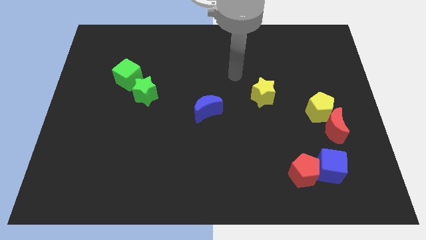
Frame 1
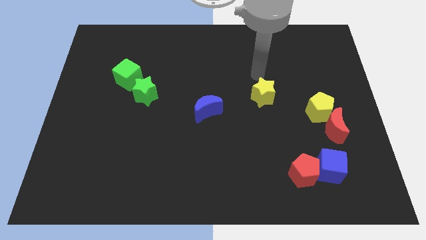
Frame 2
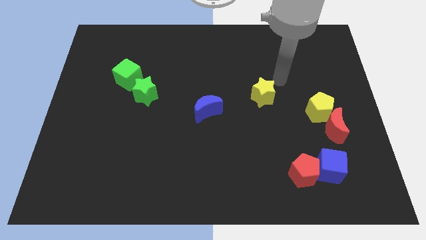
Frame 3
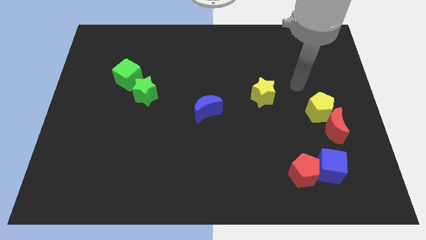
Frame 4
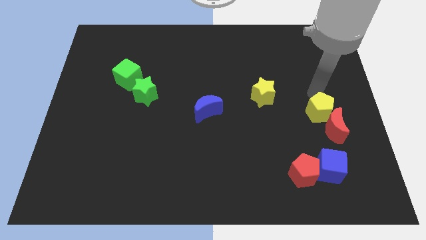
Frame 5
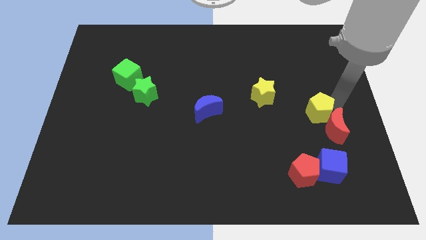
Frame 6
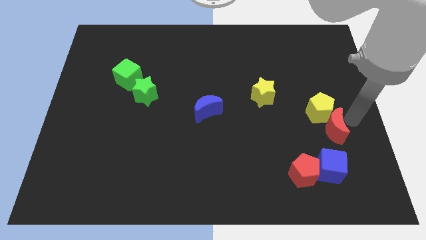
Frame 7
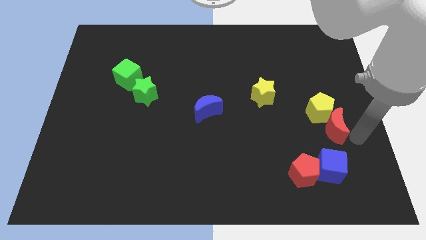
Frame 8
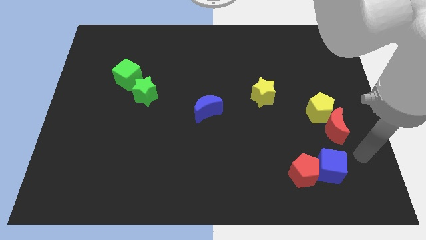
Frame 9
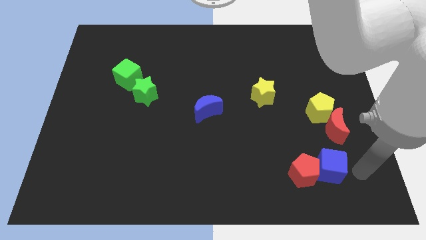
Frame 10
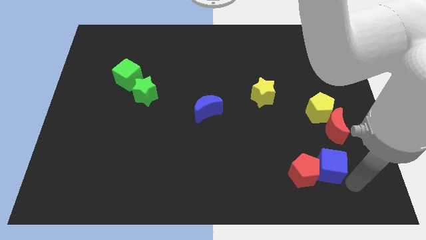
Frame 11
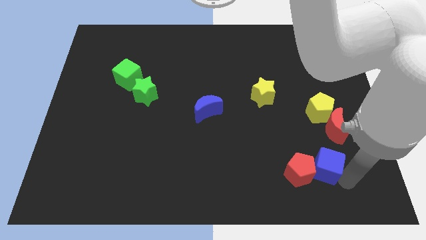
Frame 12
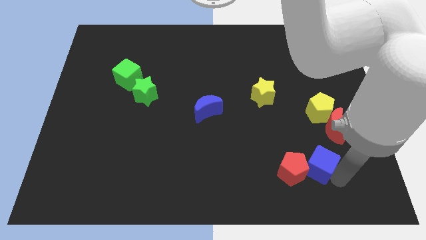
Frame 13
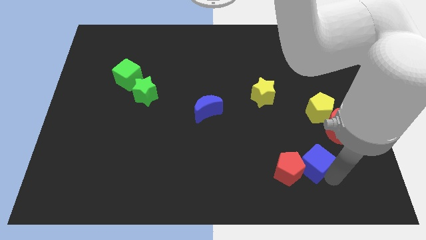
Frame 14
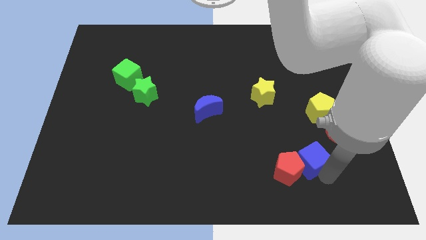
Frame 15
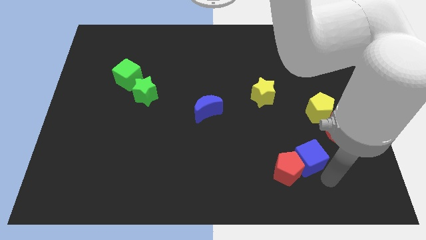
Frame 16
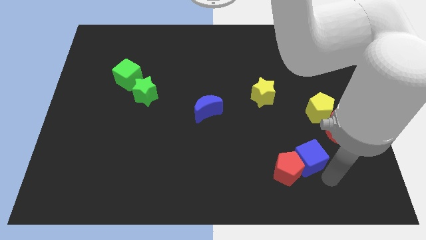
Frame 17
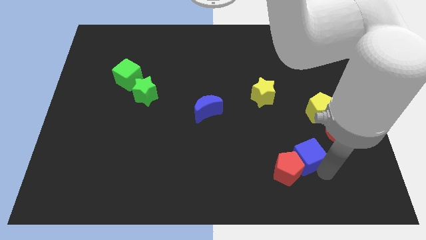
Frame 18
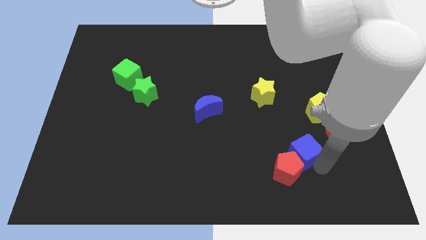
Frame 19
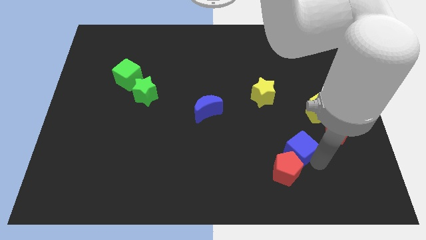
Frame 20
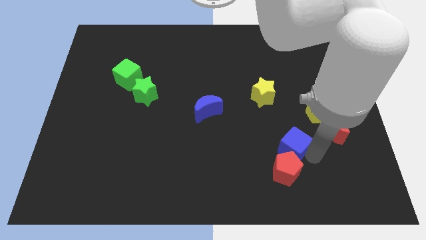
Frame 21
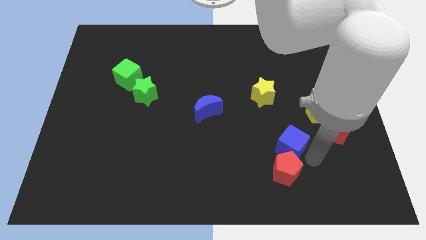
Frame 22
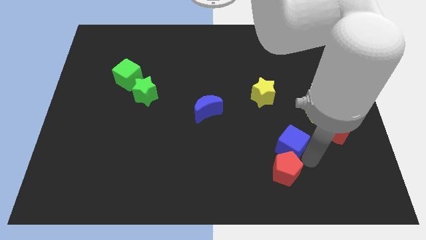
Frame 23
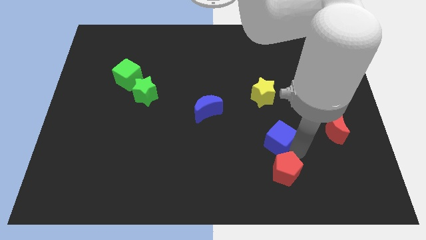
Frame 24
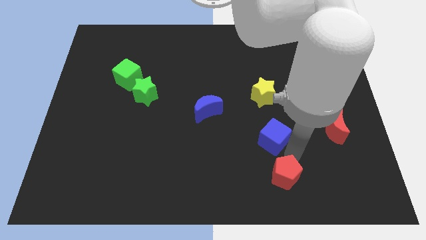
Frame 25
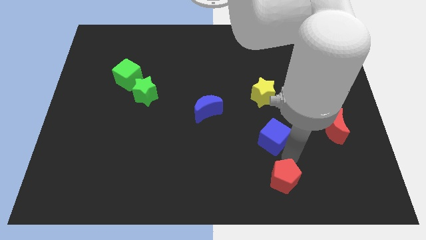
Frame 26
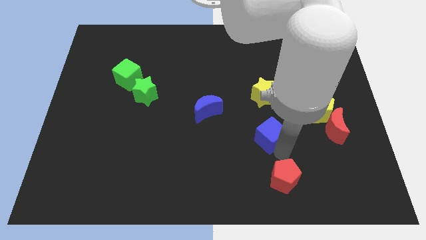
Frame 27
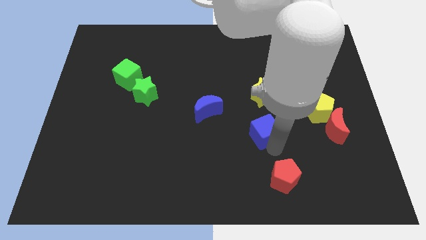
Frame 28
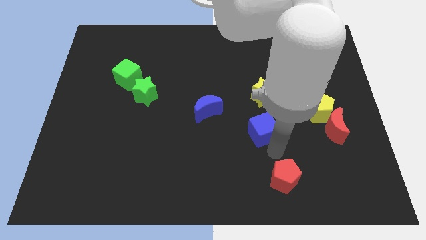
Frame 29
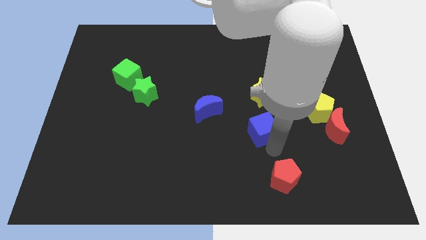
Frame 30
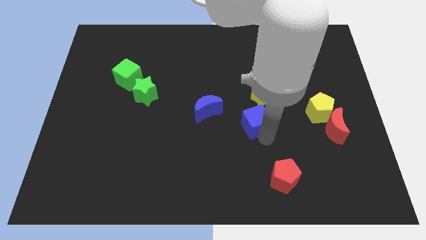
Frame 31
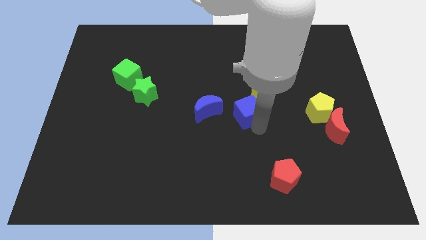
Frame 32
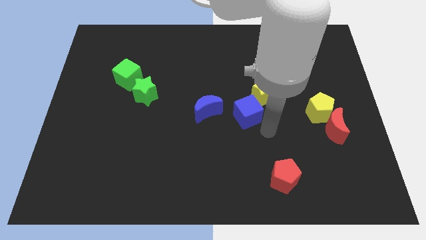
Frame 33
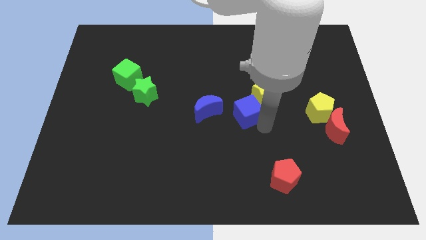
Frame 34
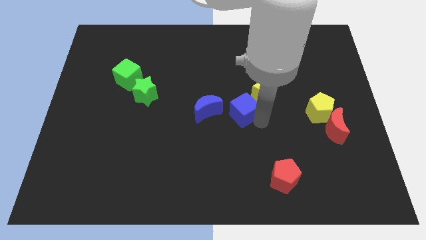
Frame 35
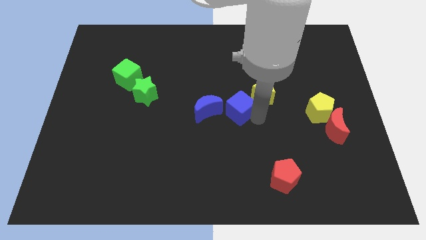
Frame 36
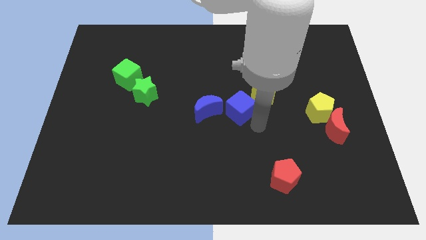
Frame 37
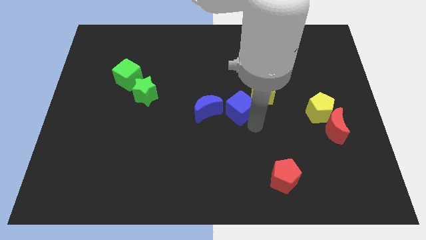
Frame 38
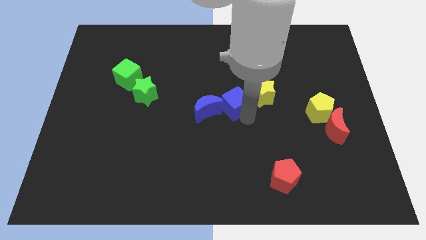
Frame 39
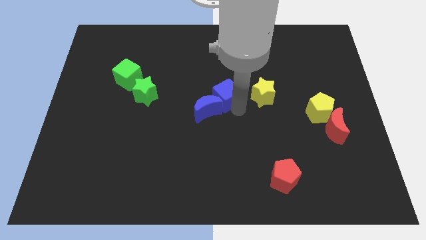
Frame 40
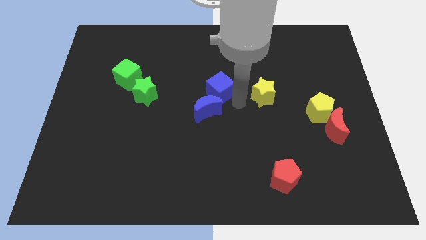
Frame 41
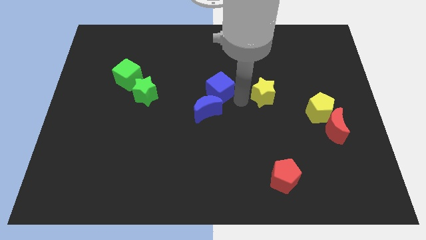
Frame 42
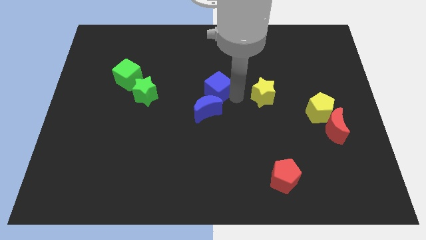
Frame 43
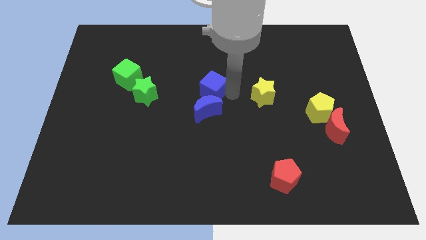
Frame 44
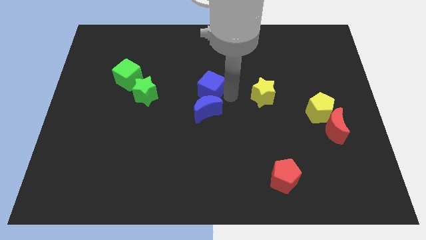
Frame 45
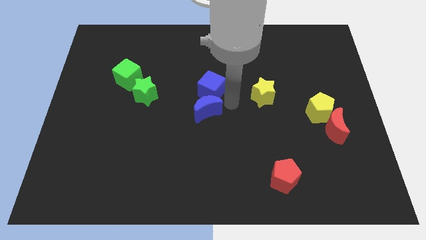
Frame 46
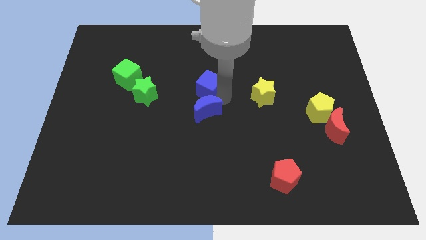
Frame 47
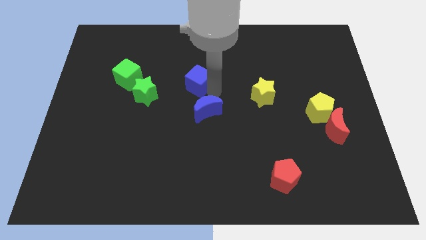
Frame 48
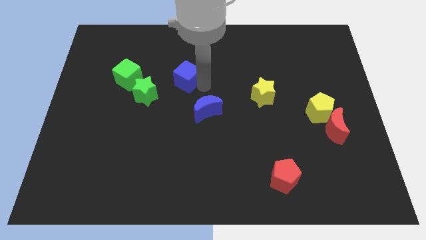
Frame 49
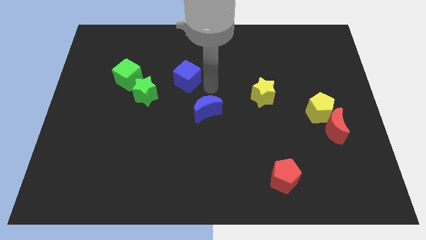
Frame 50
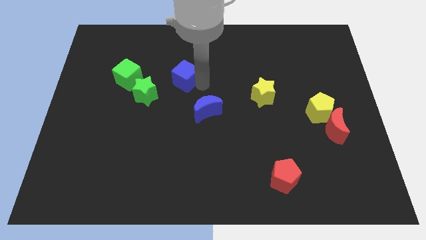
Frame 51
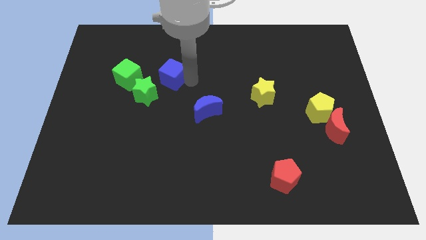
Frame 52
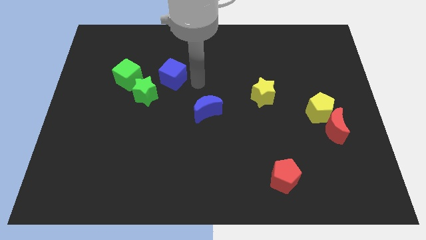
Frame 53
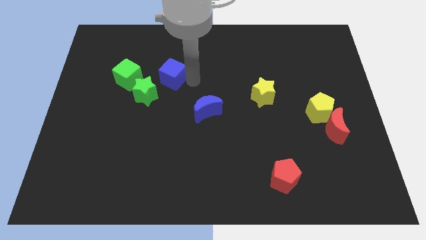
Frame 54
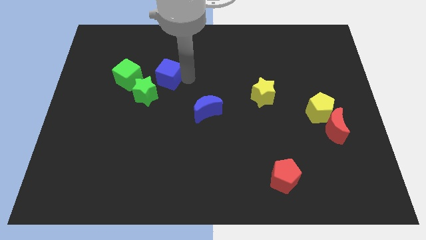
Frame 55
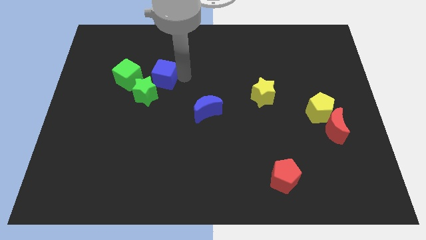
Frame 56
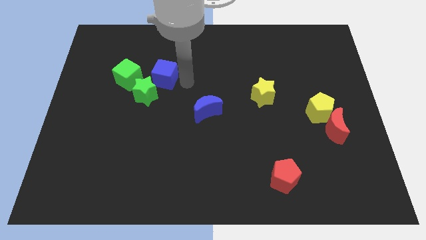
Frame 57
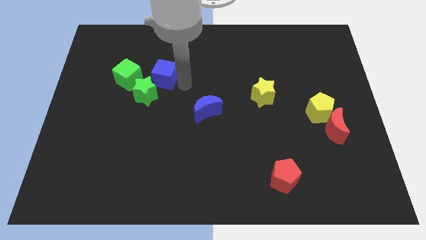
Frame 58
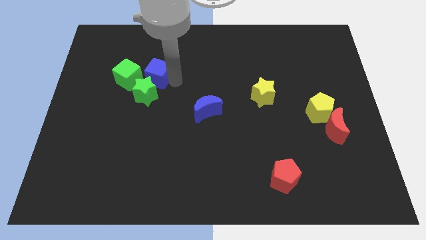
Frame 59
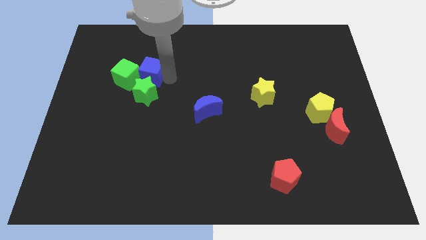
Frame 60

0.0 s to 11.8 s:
put the blue cube towards the green cube

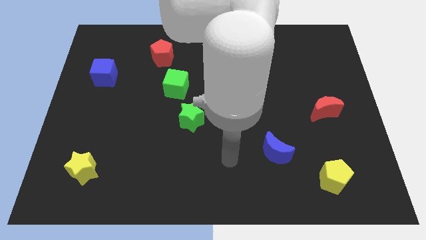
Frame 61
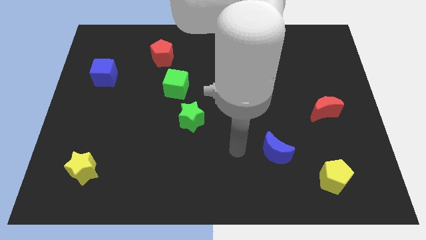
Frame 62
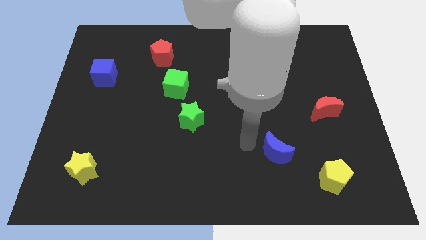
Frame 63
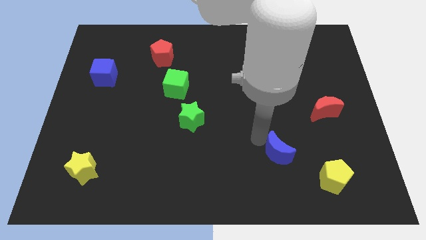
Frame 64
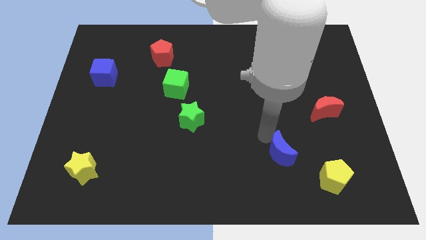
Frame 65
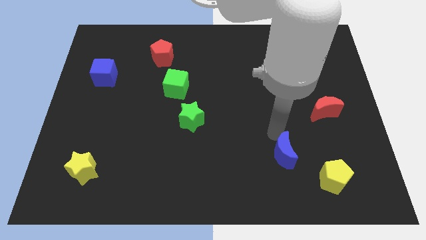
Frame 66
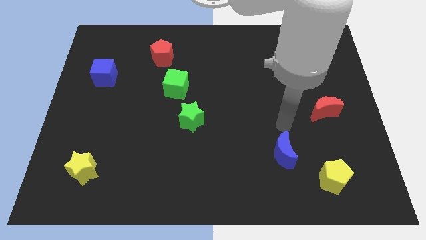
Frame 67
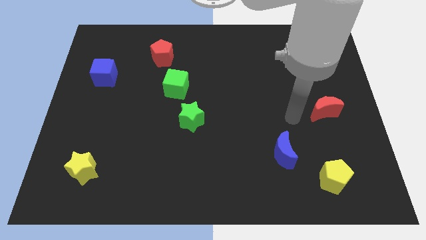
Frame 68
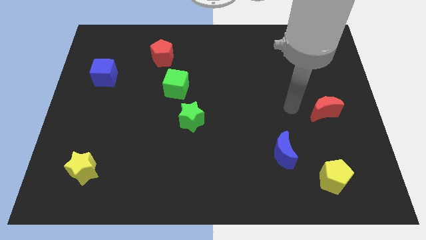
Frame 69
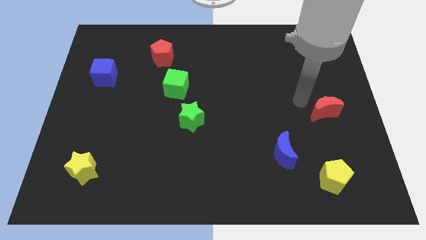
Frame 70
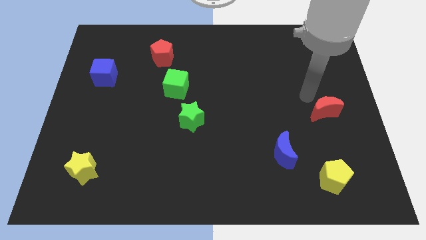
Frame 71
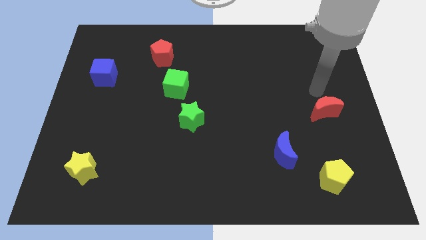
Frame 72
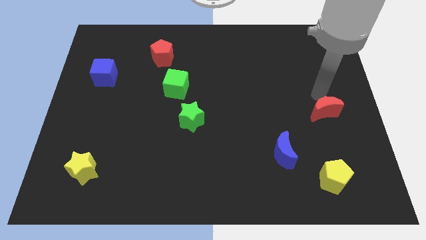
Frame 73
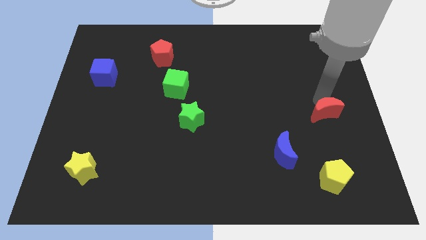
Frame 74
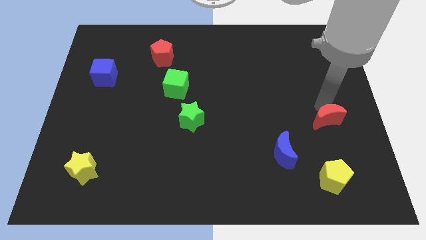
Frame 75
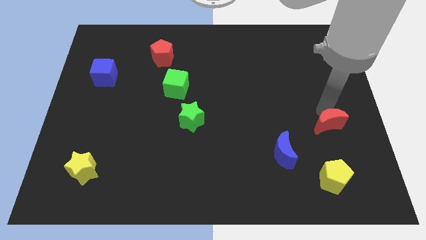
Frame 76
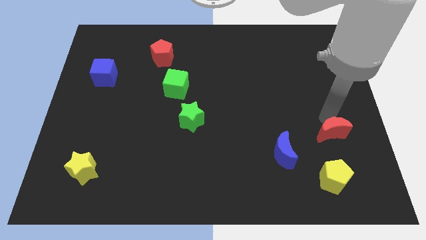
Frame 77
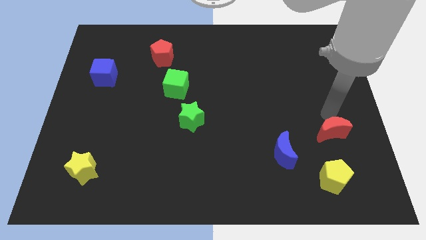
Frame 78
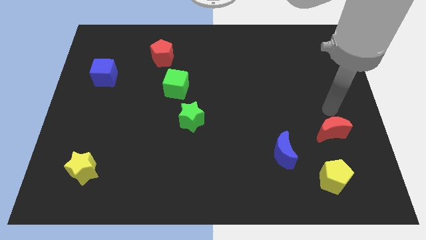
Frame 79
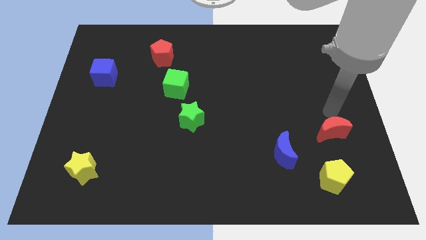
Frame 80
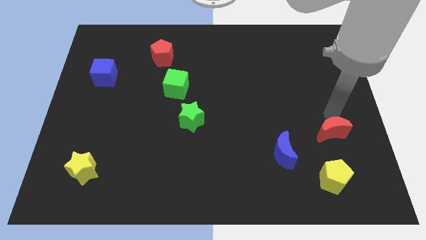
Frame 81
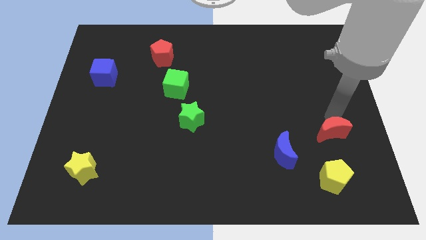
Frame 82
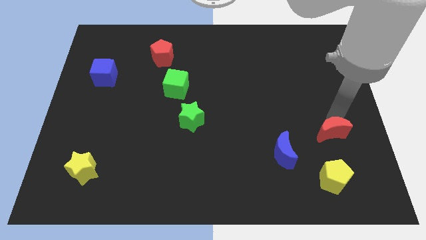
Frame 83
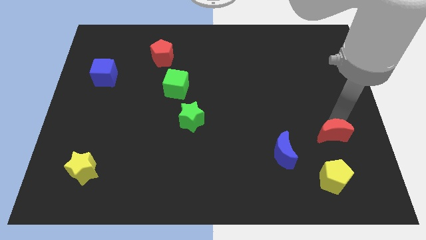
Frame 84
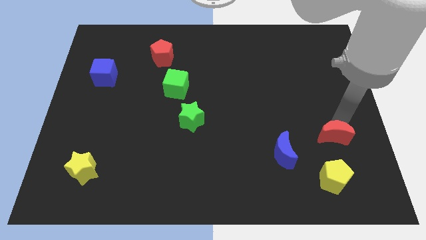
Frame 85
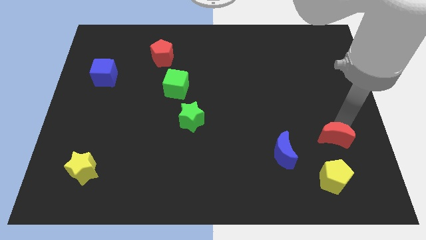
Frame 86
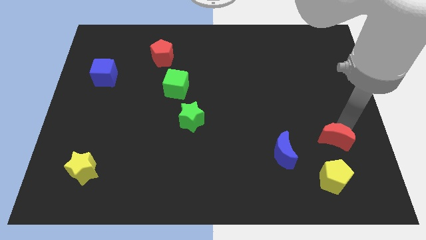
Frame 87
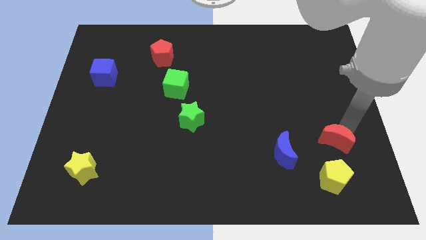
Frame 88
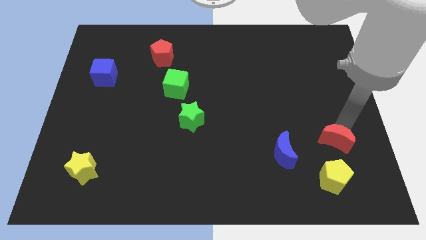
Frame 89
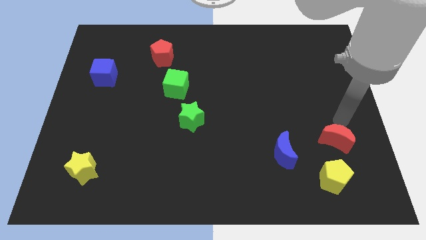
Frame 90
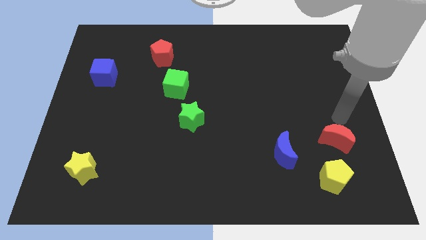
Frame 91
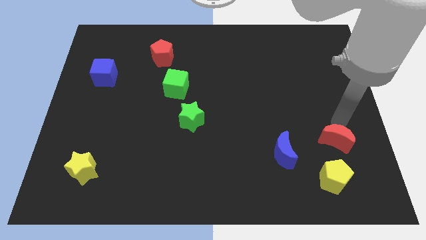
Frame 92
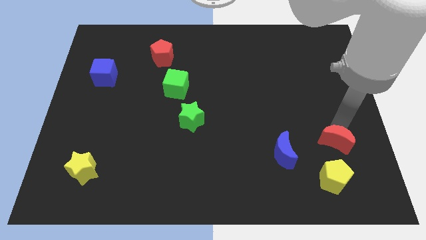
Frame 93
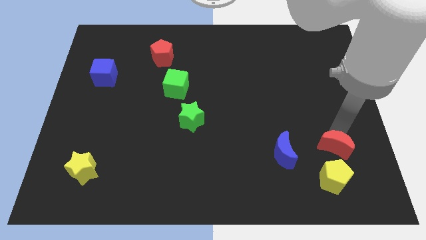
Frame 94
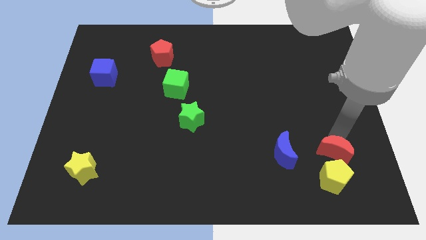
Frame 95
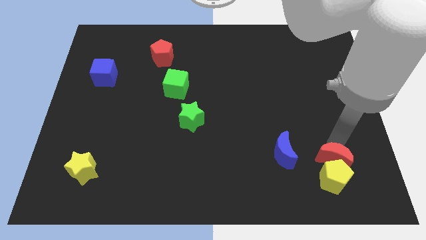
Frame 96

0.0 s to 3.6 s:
put the red moon towards the yellow pentagon
